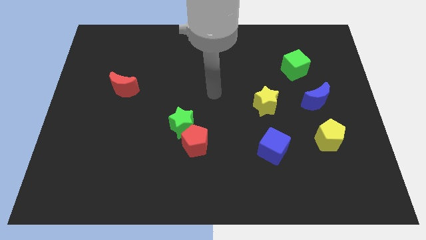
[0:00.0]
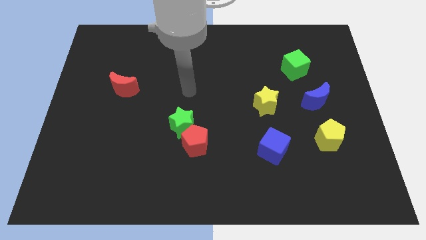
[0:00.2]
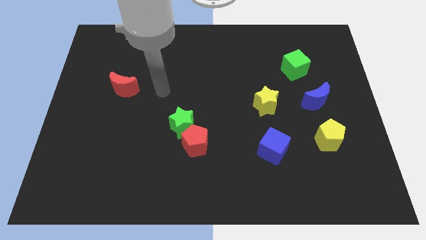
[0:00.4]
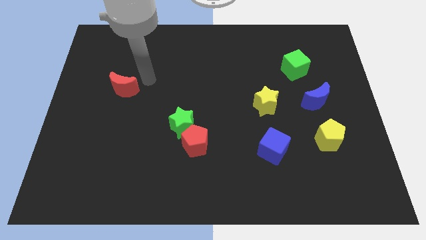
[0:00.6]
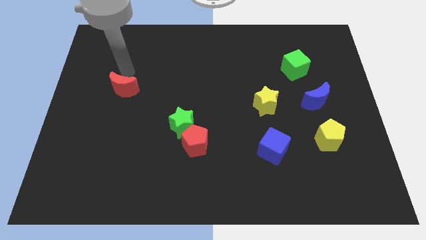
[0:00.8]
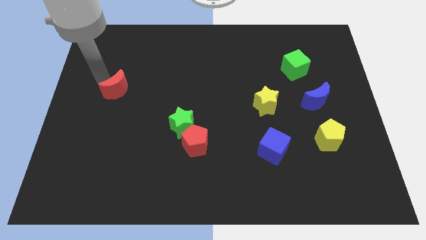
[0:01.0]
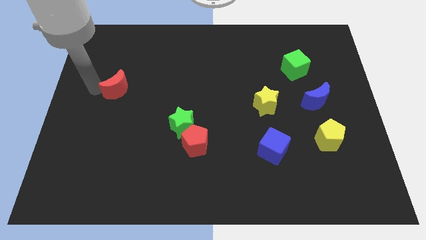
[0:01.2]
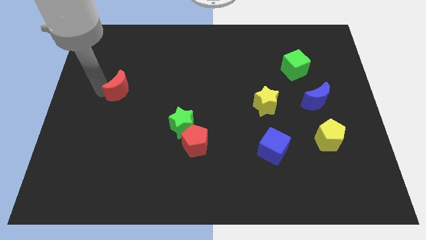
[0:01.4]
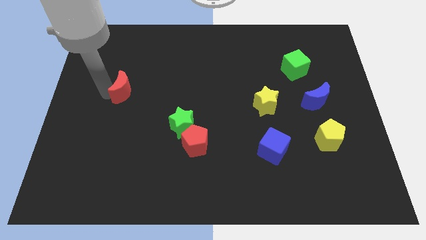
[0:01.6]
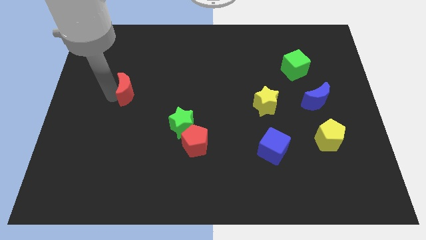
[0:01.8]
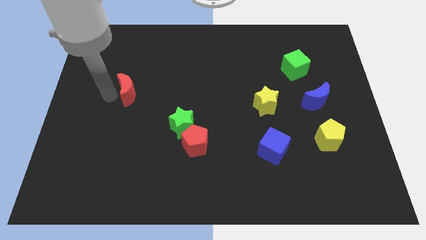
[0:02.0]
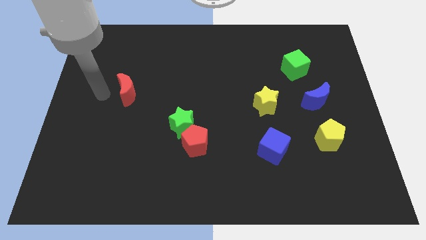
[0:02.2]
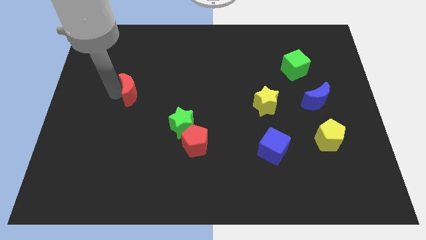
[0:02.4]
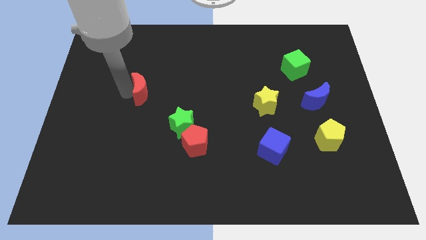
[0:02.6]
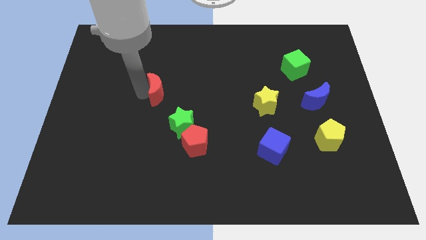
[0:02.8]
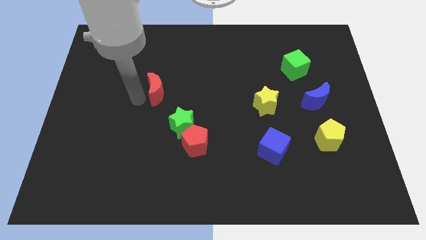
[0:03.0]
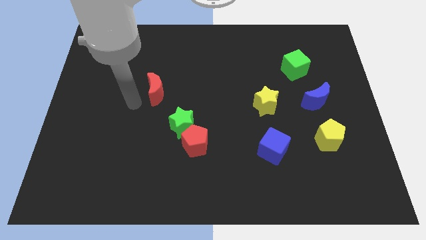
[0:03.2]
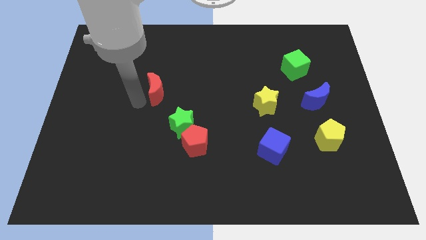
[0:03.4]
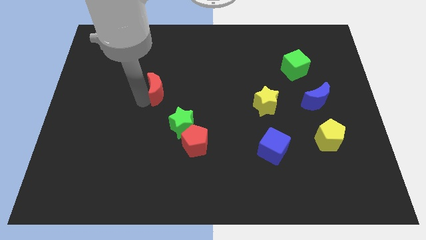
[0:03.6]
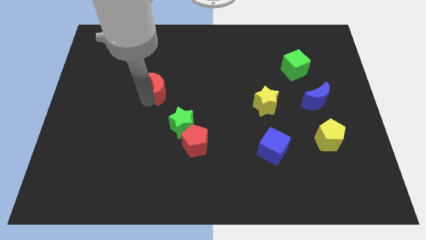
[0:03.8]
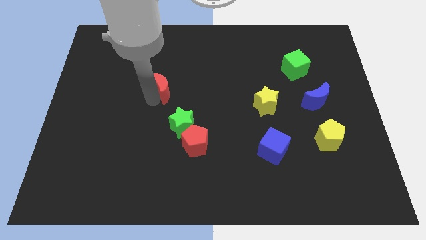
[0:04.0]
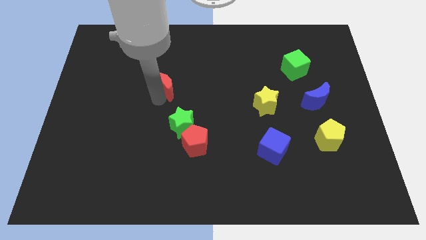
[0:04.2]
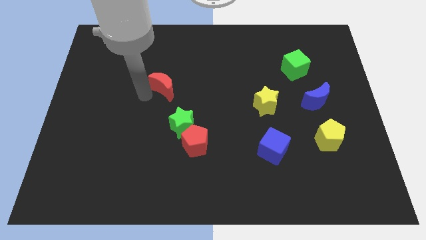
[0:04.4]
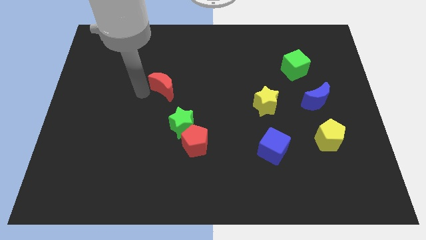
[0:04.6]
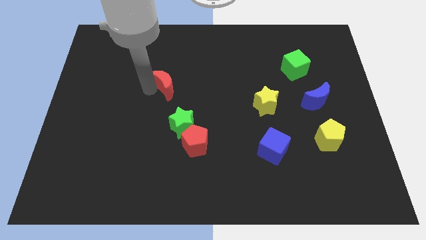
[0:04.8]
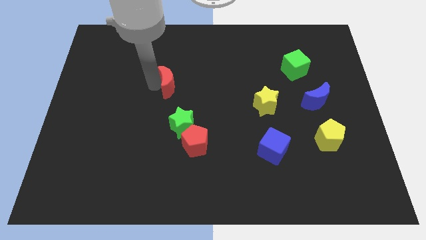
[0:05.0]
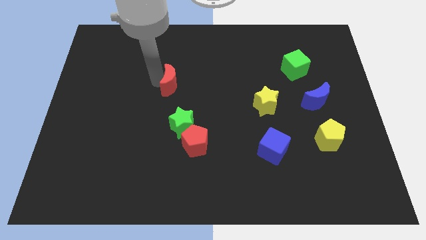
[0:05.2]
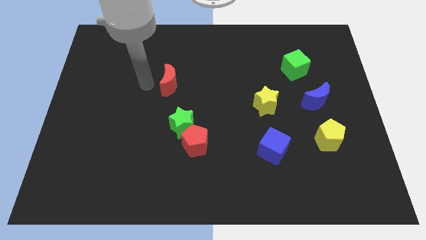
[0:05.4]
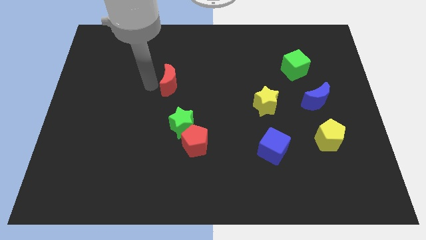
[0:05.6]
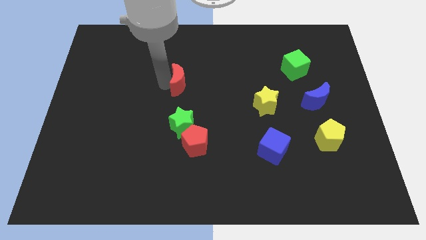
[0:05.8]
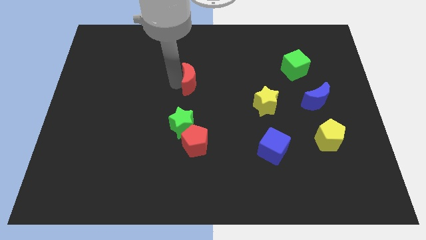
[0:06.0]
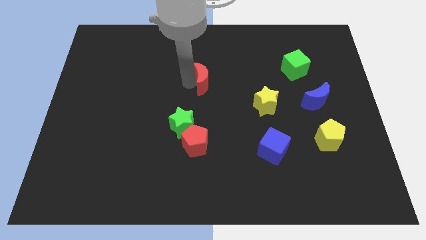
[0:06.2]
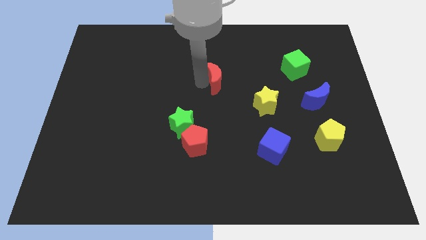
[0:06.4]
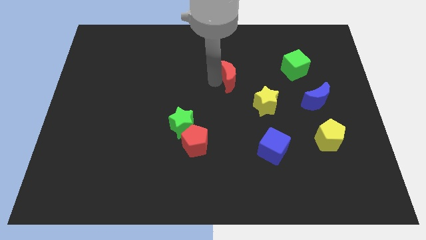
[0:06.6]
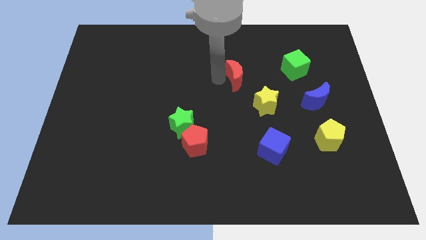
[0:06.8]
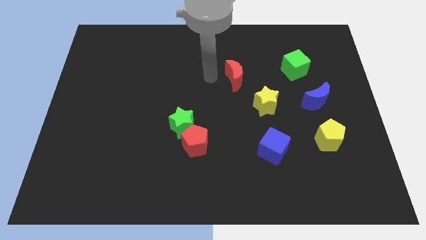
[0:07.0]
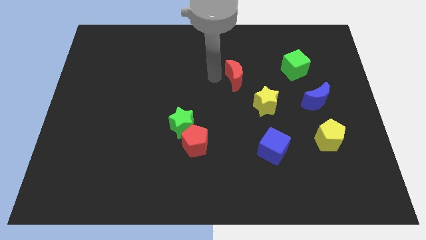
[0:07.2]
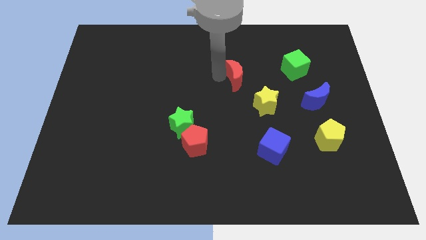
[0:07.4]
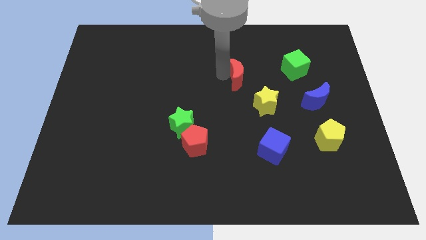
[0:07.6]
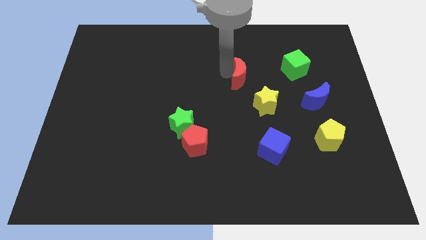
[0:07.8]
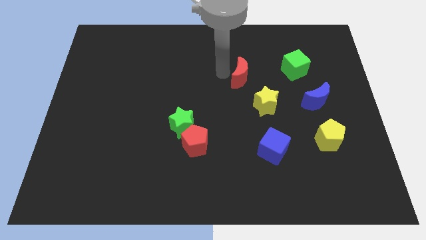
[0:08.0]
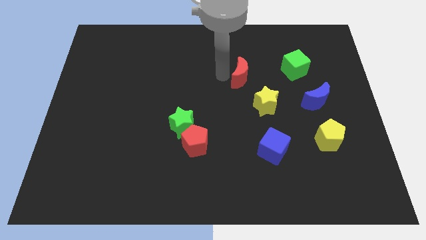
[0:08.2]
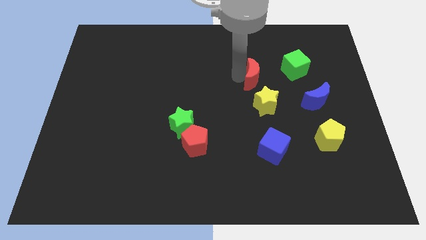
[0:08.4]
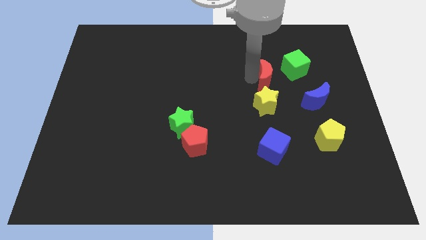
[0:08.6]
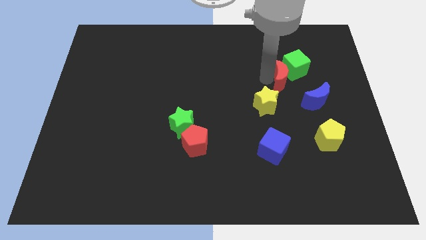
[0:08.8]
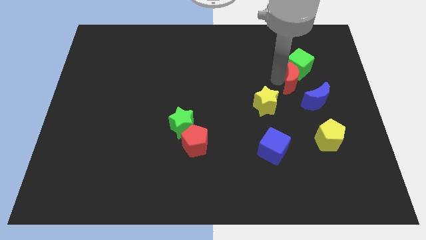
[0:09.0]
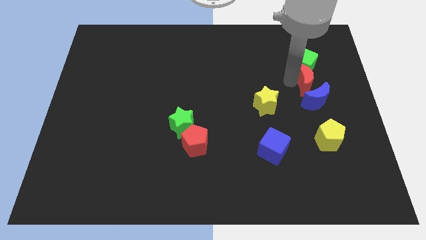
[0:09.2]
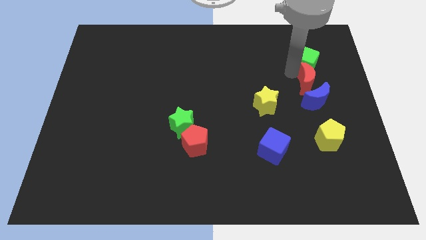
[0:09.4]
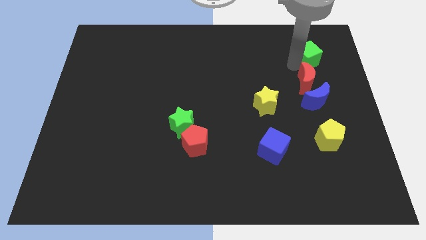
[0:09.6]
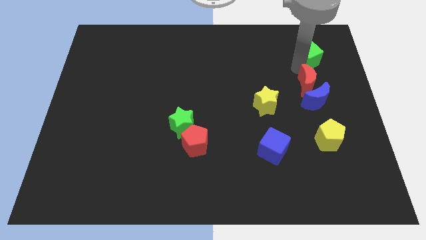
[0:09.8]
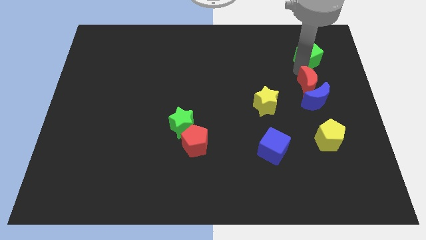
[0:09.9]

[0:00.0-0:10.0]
put the red moon above the yellow pentagon

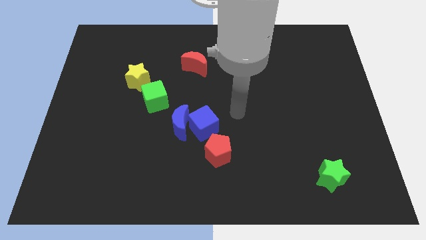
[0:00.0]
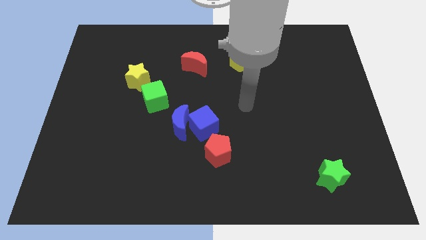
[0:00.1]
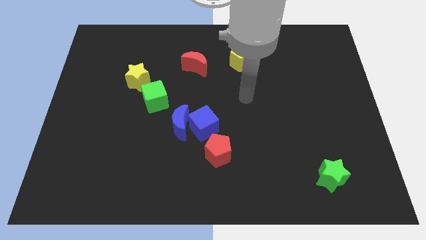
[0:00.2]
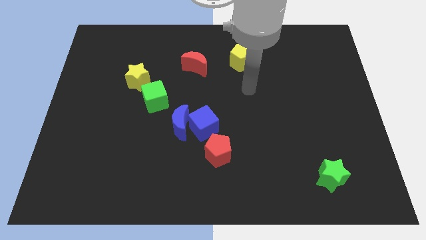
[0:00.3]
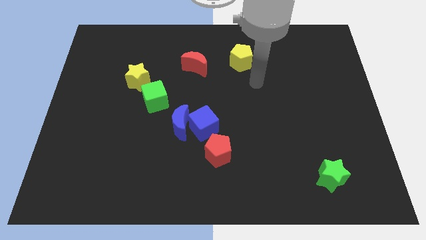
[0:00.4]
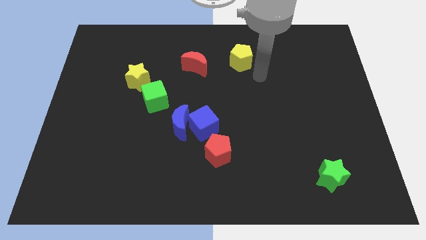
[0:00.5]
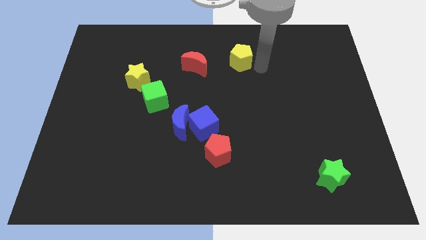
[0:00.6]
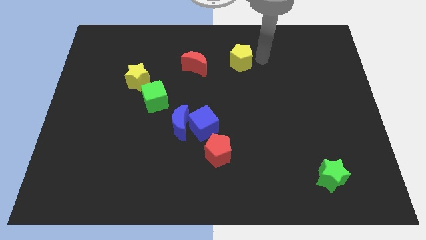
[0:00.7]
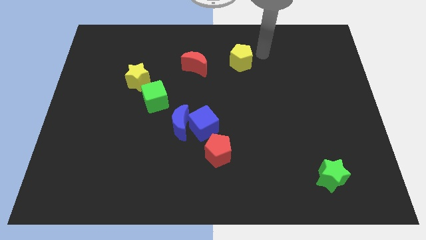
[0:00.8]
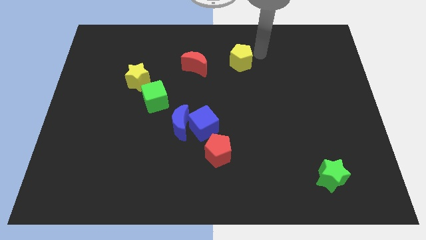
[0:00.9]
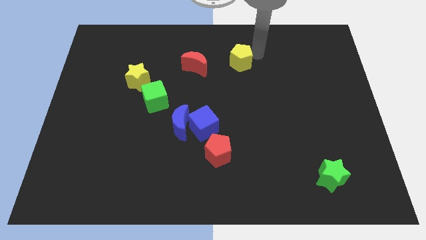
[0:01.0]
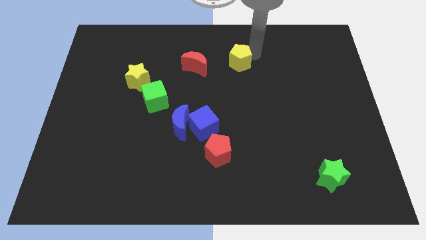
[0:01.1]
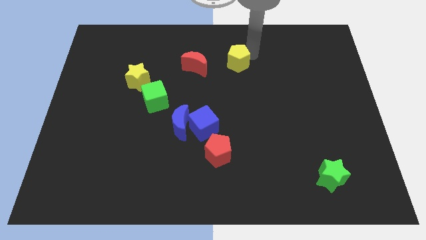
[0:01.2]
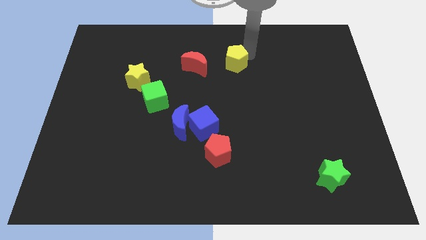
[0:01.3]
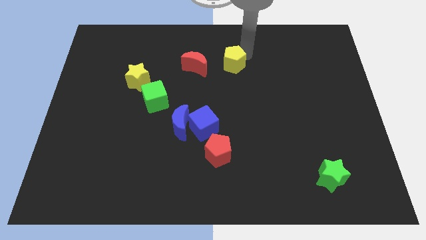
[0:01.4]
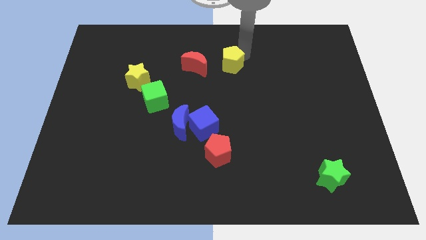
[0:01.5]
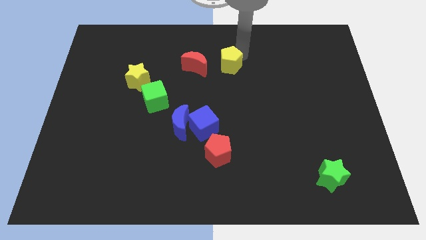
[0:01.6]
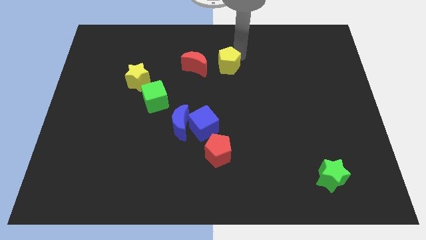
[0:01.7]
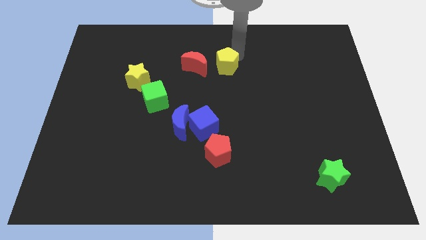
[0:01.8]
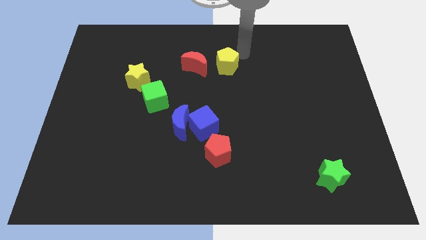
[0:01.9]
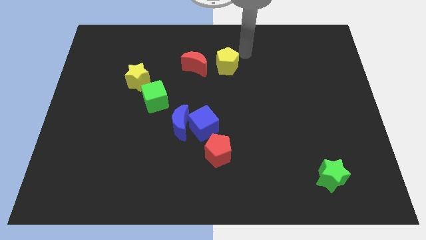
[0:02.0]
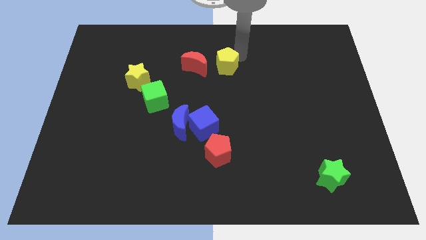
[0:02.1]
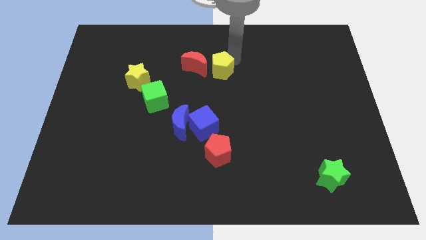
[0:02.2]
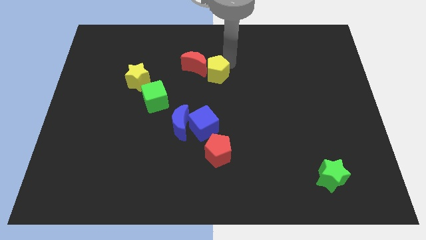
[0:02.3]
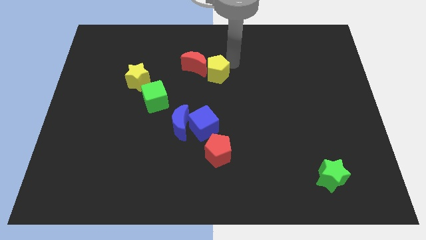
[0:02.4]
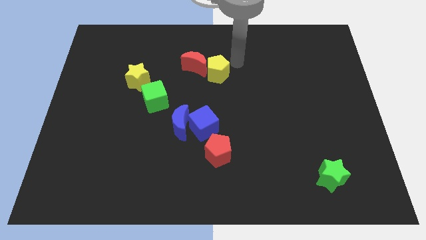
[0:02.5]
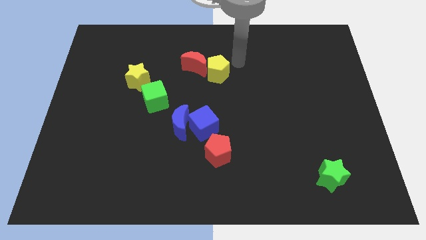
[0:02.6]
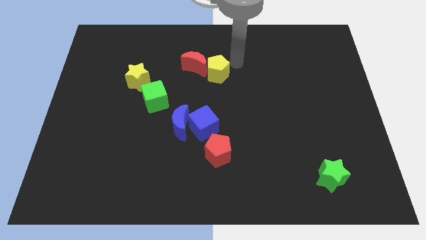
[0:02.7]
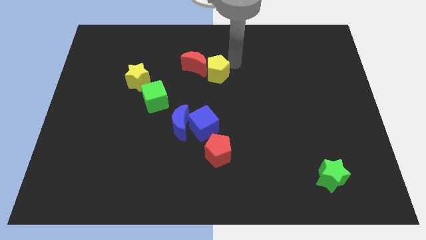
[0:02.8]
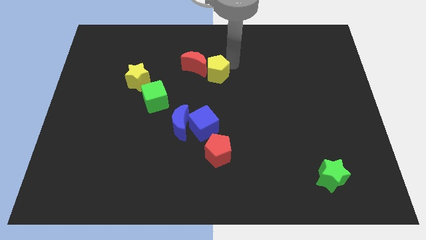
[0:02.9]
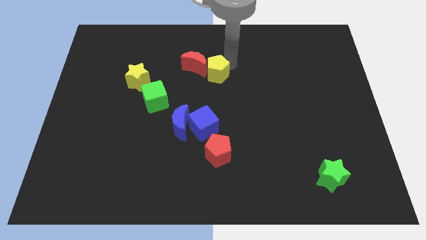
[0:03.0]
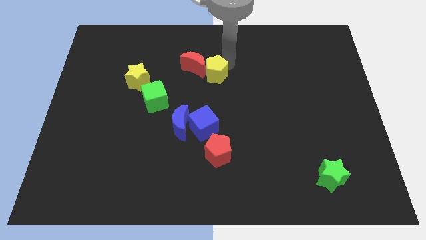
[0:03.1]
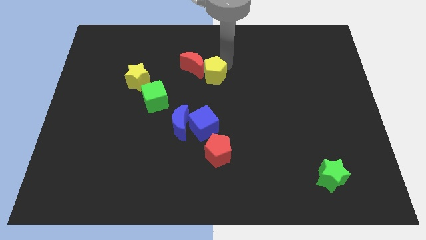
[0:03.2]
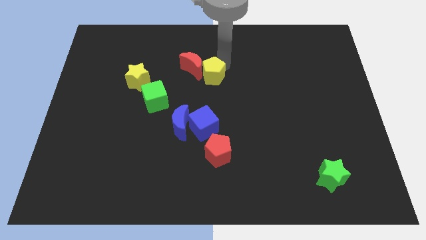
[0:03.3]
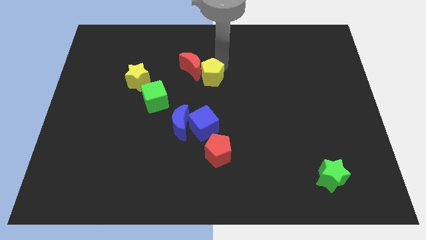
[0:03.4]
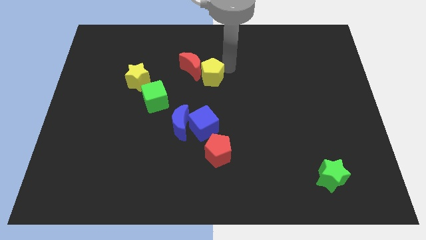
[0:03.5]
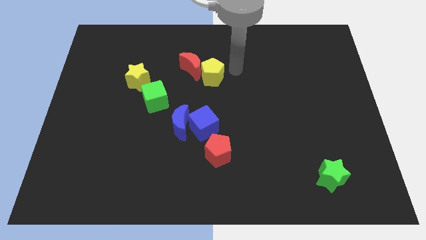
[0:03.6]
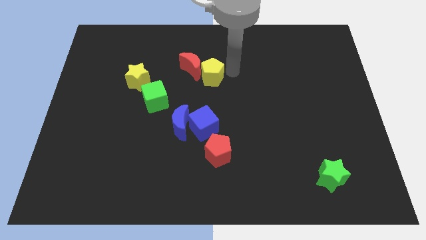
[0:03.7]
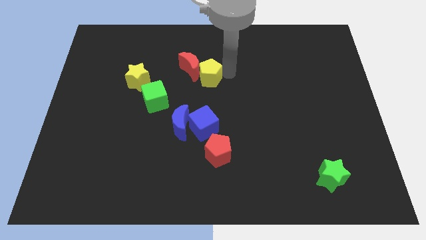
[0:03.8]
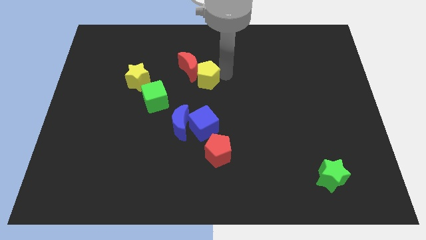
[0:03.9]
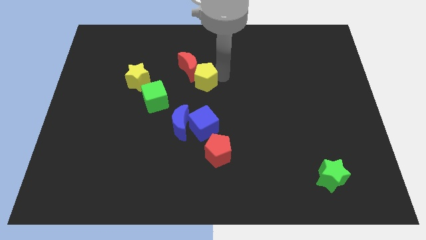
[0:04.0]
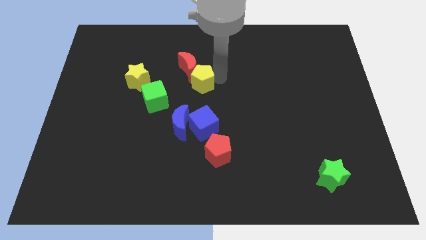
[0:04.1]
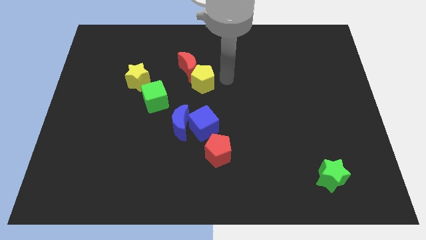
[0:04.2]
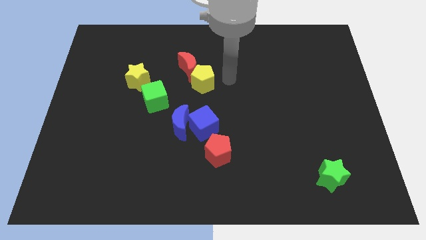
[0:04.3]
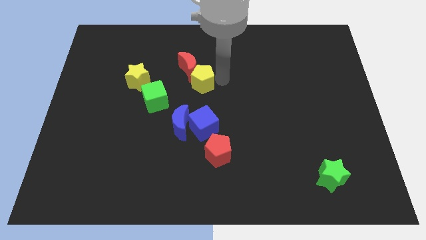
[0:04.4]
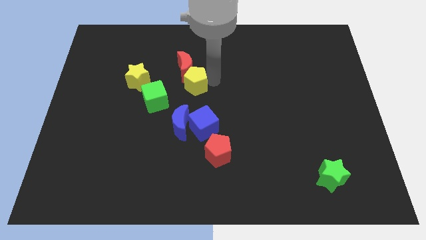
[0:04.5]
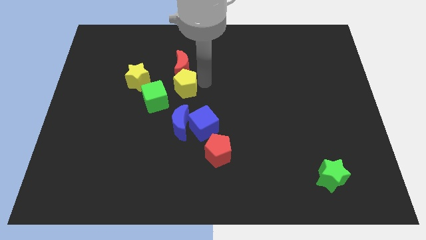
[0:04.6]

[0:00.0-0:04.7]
put the yellow pentagon to the bottom left side of the red moon
